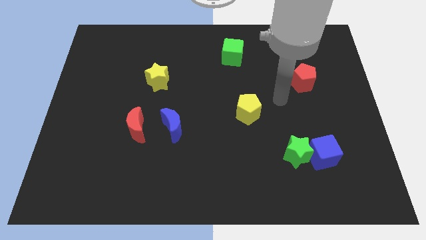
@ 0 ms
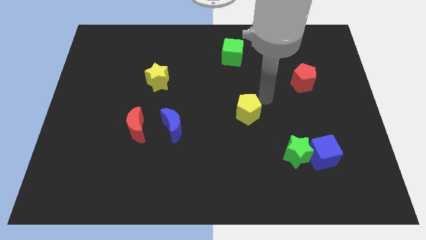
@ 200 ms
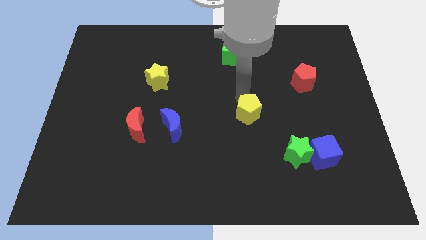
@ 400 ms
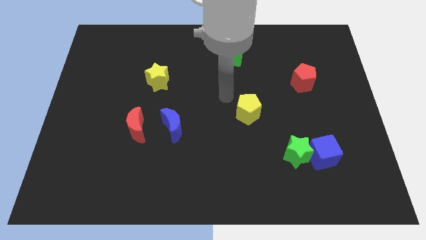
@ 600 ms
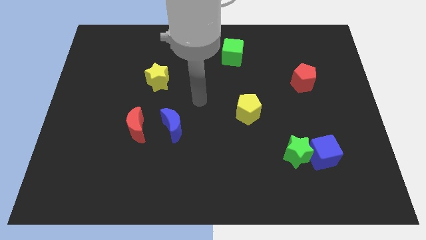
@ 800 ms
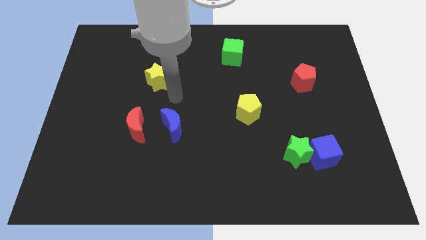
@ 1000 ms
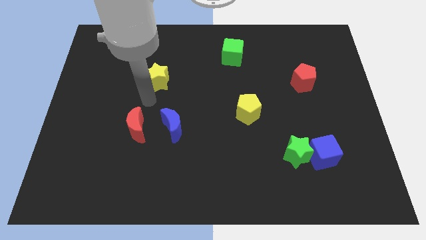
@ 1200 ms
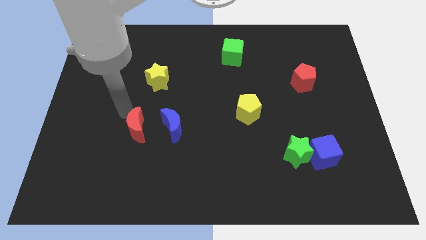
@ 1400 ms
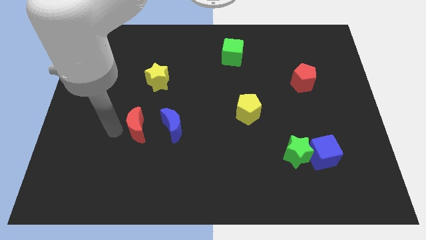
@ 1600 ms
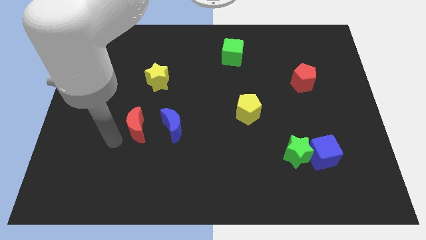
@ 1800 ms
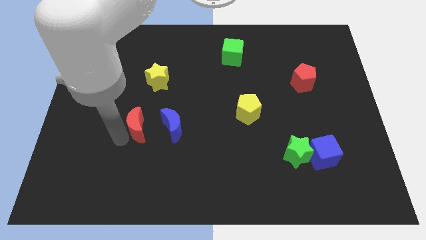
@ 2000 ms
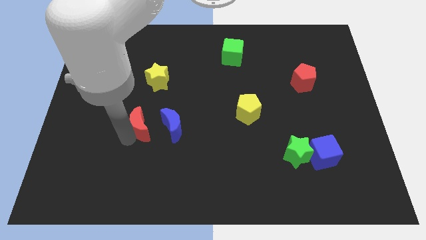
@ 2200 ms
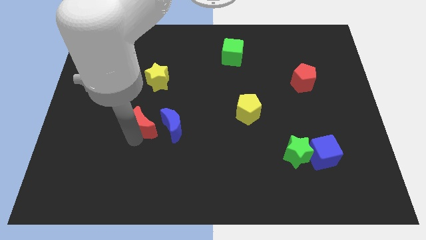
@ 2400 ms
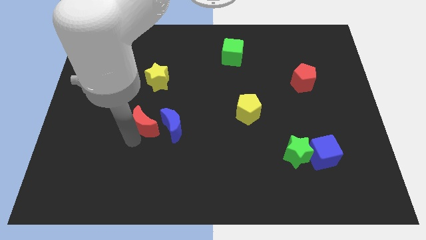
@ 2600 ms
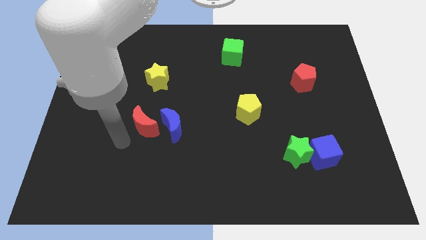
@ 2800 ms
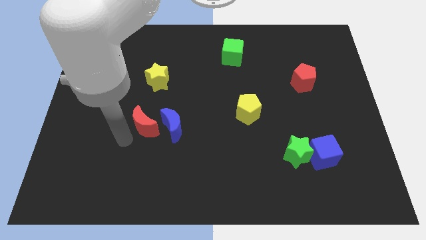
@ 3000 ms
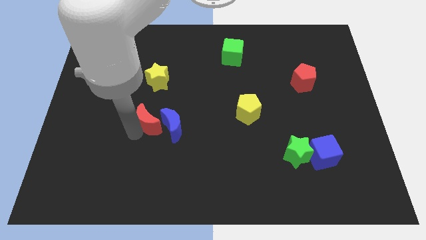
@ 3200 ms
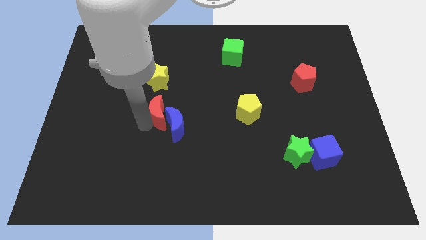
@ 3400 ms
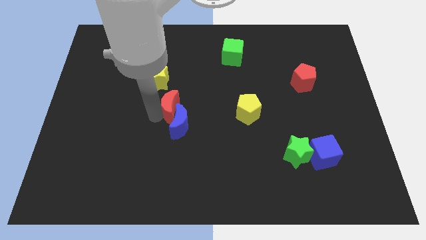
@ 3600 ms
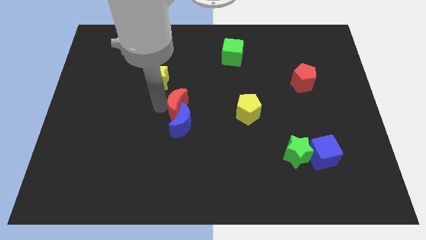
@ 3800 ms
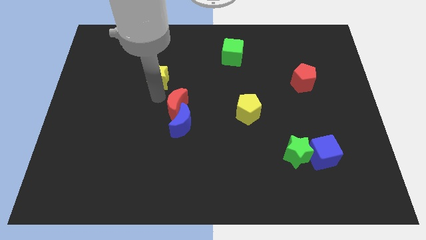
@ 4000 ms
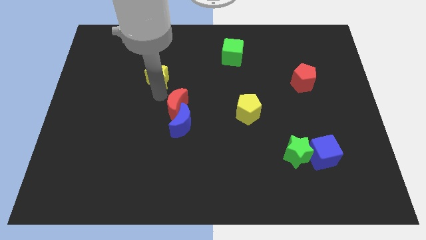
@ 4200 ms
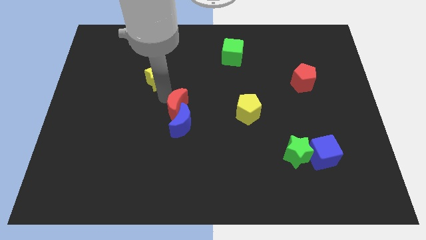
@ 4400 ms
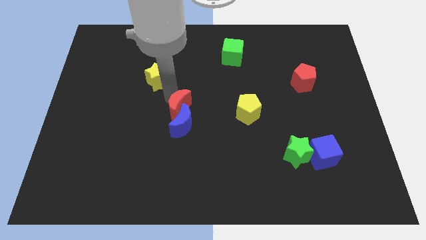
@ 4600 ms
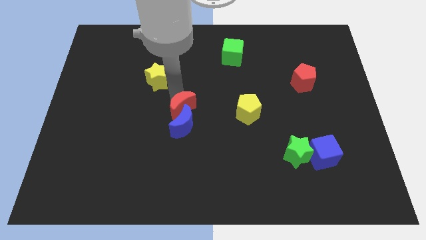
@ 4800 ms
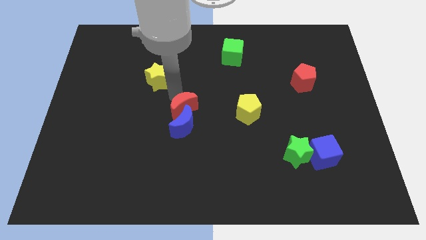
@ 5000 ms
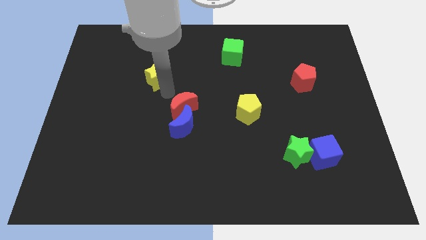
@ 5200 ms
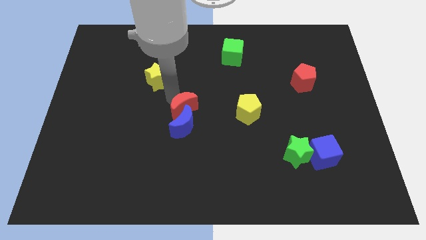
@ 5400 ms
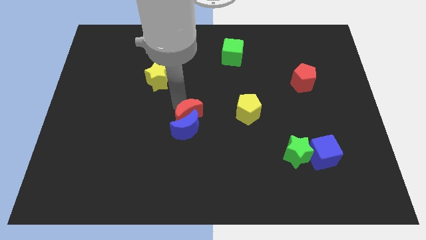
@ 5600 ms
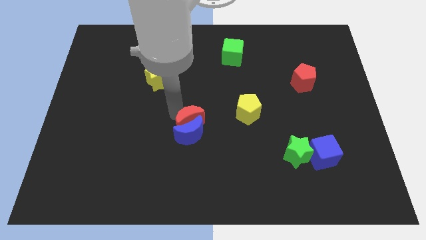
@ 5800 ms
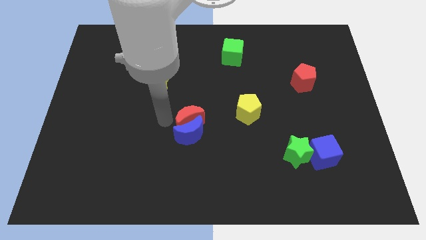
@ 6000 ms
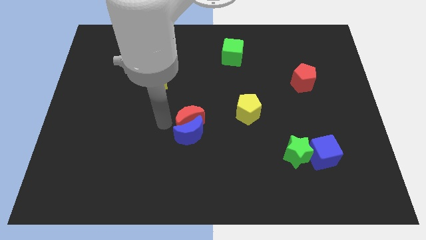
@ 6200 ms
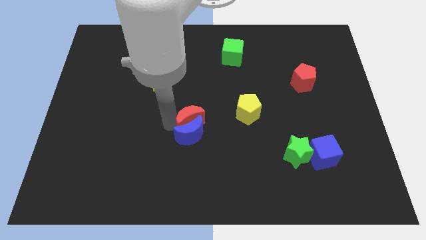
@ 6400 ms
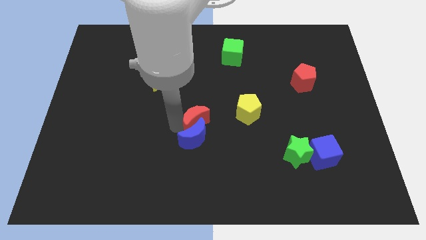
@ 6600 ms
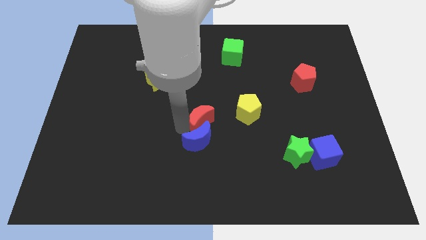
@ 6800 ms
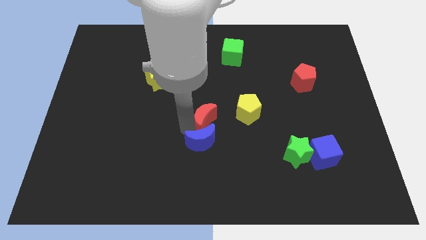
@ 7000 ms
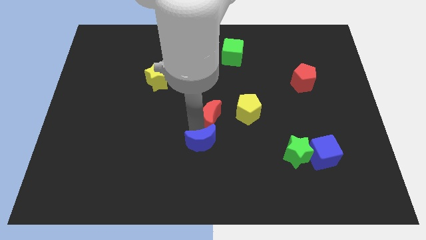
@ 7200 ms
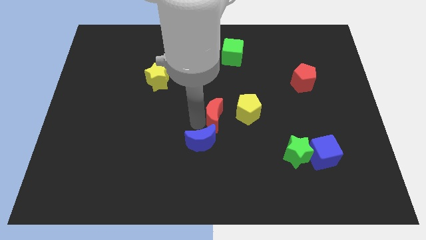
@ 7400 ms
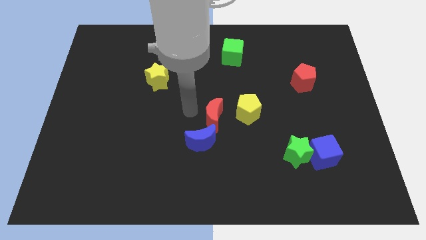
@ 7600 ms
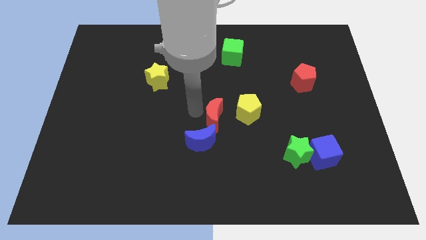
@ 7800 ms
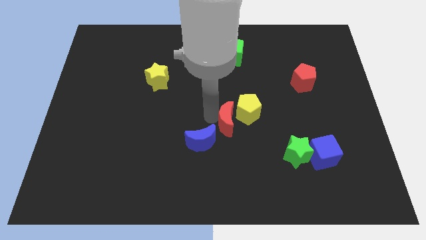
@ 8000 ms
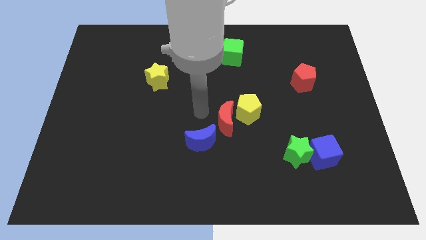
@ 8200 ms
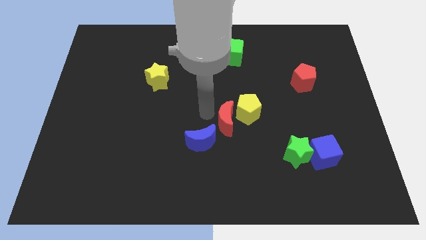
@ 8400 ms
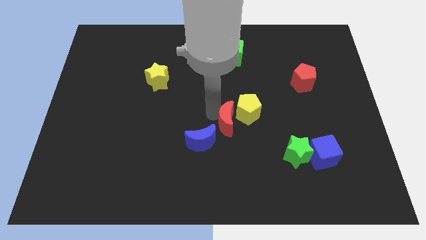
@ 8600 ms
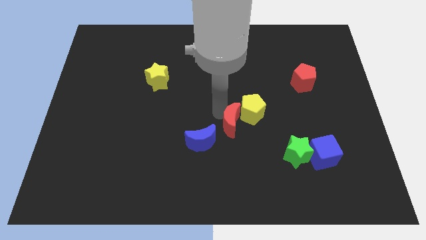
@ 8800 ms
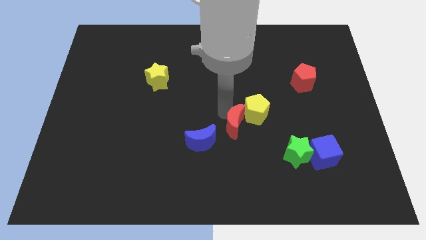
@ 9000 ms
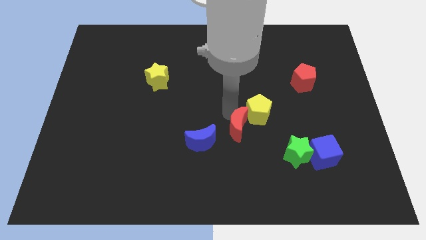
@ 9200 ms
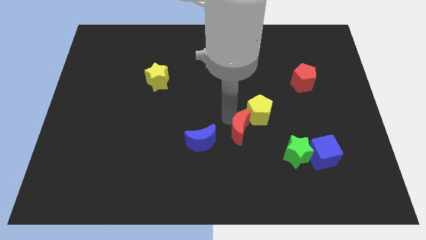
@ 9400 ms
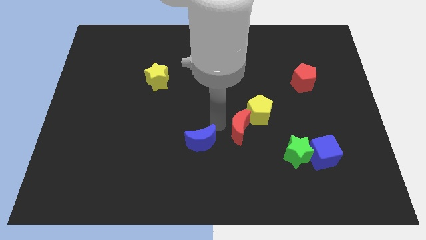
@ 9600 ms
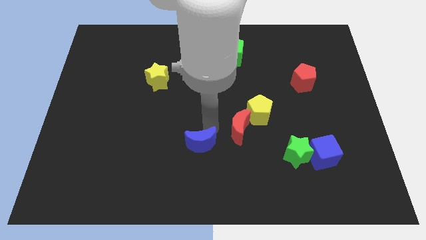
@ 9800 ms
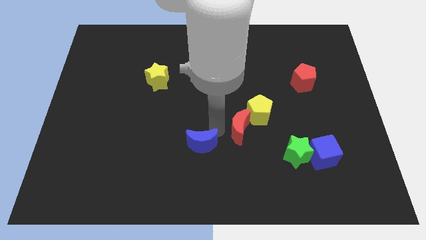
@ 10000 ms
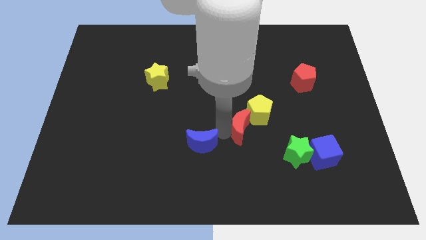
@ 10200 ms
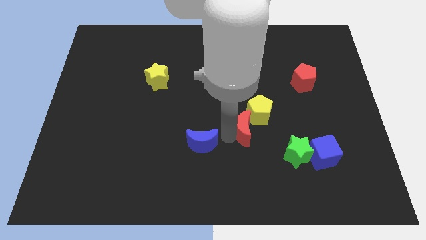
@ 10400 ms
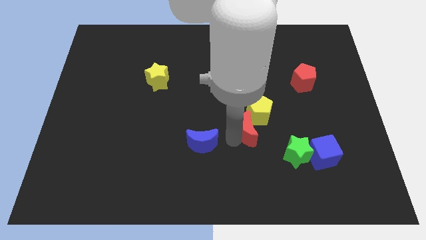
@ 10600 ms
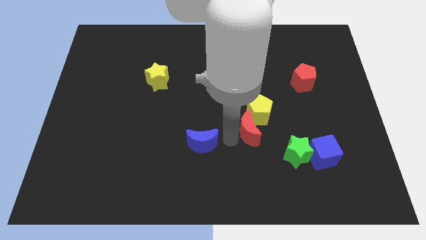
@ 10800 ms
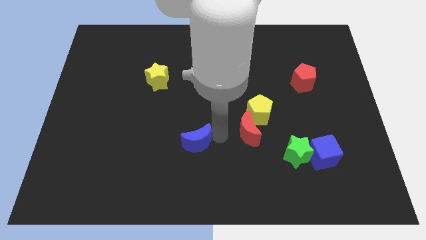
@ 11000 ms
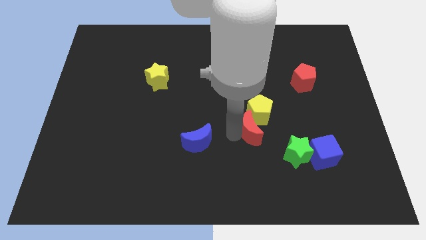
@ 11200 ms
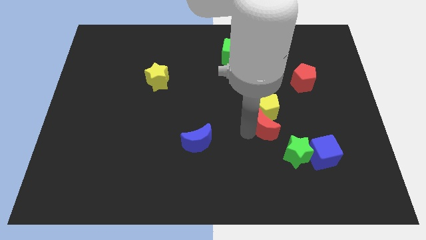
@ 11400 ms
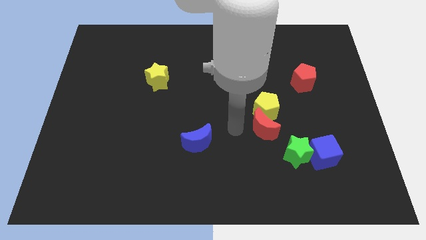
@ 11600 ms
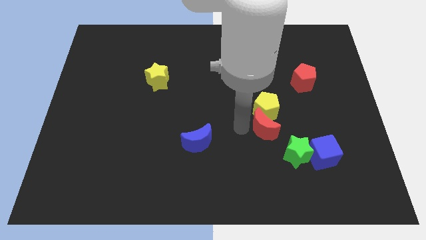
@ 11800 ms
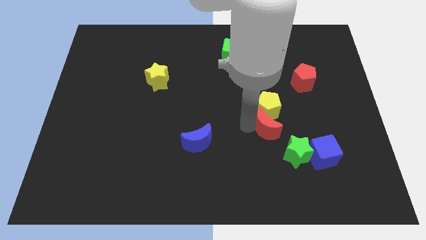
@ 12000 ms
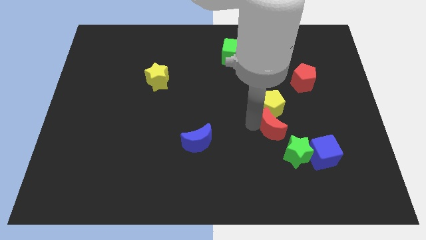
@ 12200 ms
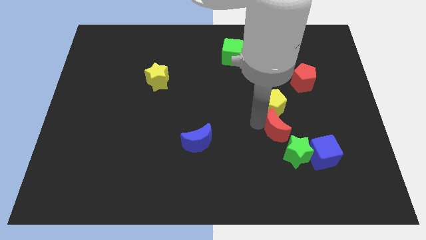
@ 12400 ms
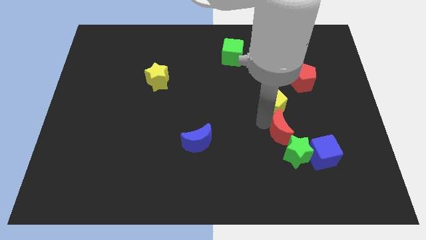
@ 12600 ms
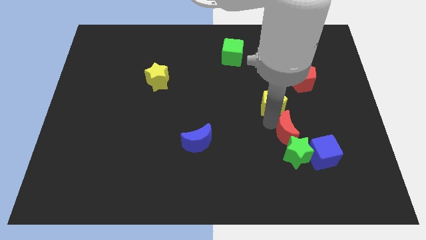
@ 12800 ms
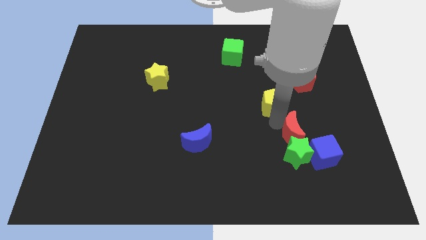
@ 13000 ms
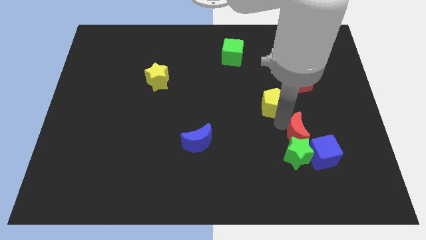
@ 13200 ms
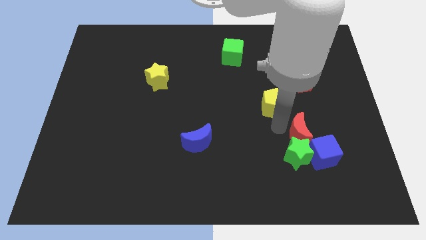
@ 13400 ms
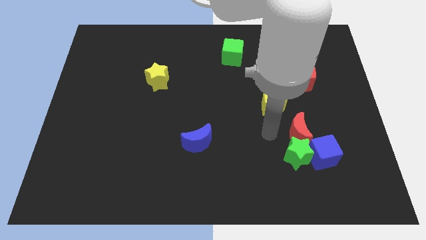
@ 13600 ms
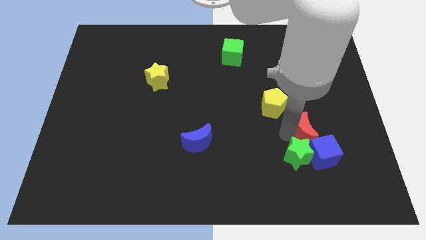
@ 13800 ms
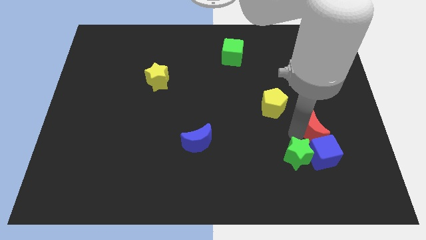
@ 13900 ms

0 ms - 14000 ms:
slide the red moon to the top right of the blue cube
